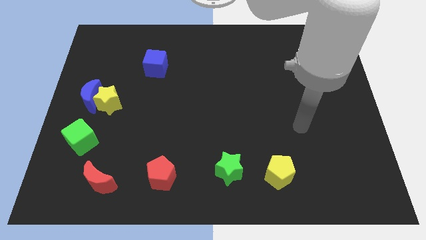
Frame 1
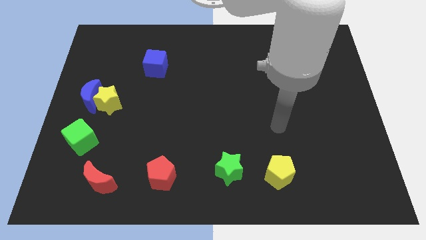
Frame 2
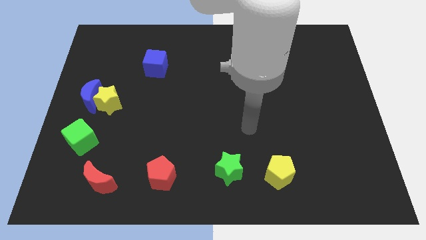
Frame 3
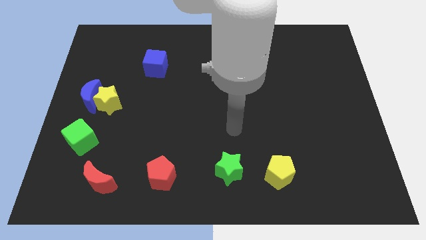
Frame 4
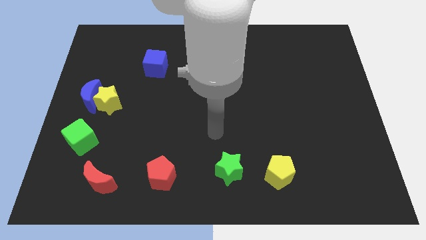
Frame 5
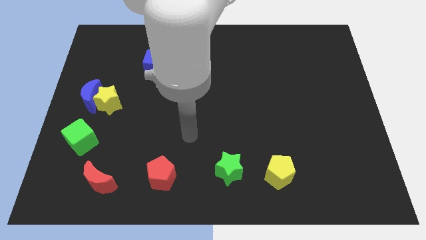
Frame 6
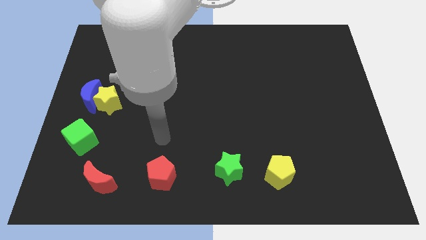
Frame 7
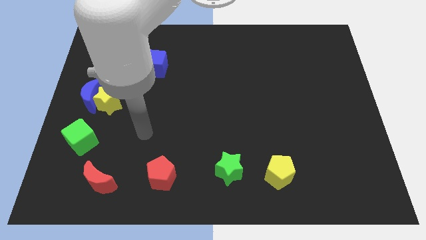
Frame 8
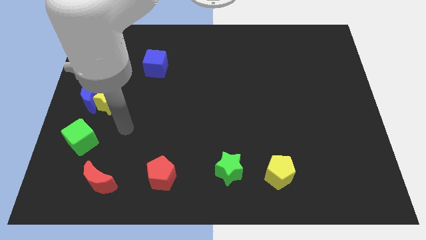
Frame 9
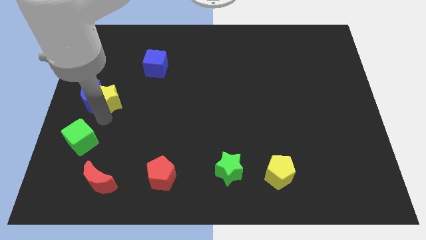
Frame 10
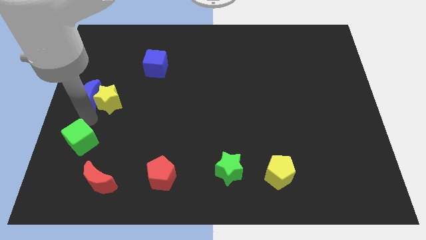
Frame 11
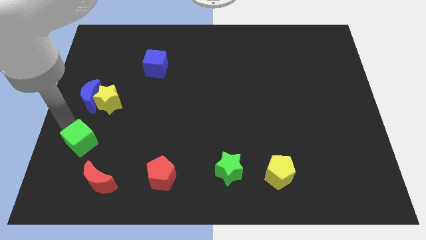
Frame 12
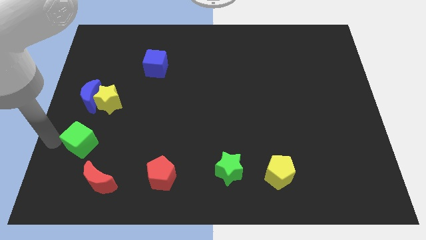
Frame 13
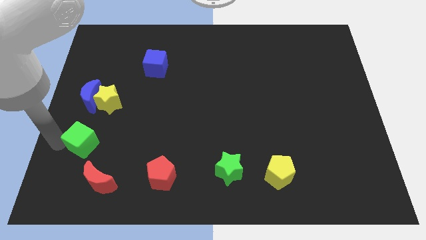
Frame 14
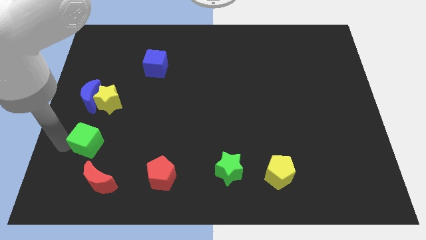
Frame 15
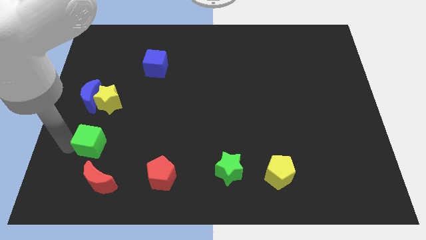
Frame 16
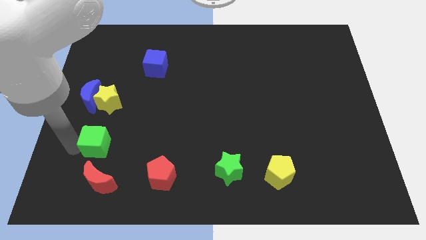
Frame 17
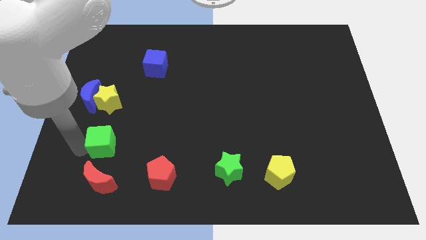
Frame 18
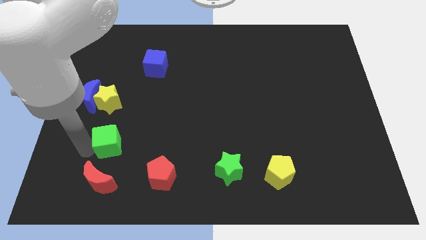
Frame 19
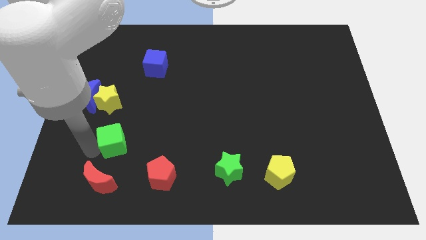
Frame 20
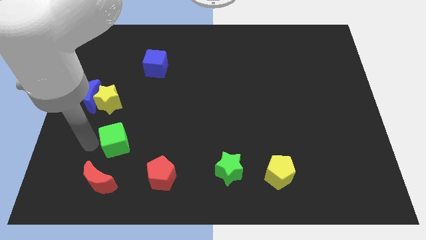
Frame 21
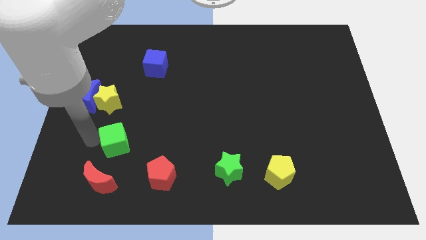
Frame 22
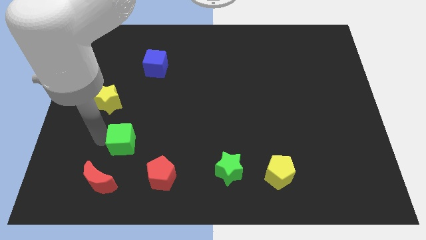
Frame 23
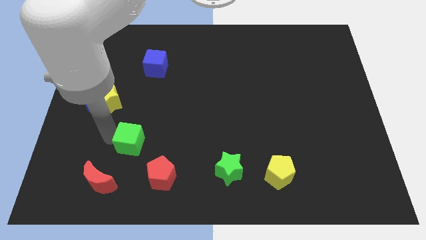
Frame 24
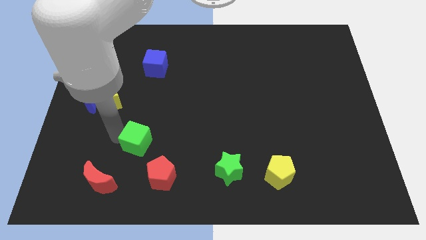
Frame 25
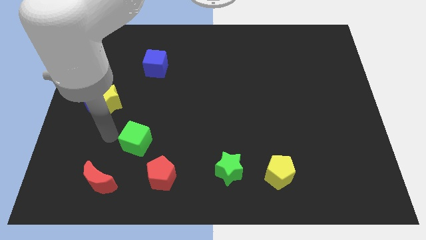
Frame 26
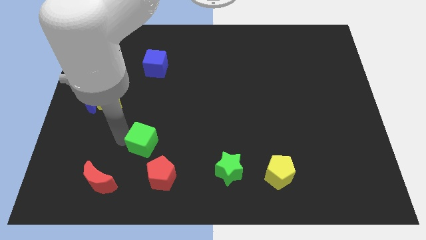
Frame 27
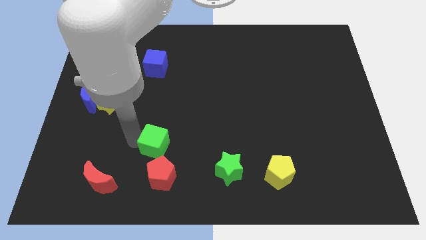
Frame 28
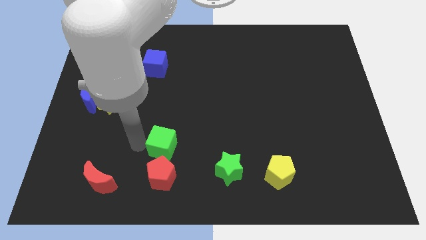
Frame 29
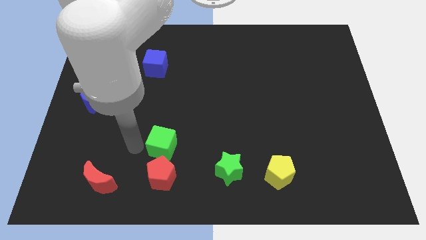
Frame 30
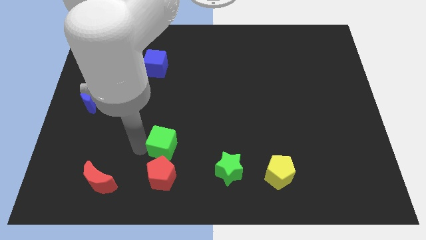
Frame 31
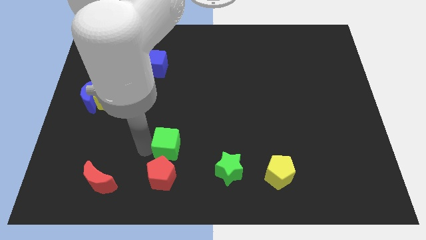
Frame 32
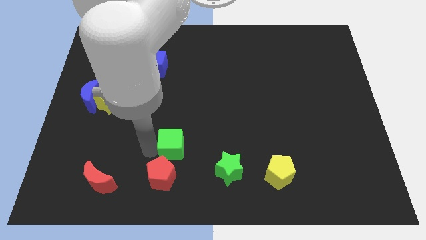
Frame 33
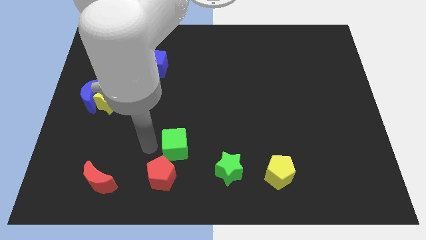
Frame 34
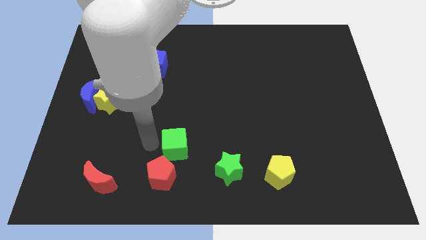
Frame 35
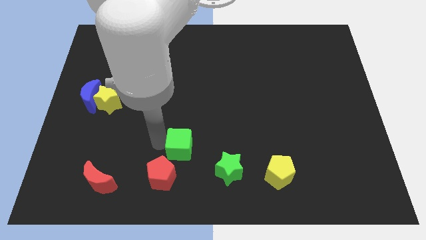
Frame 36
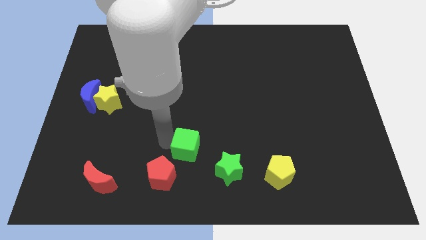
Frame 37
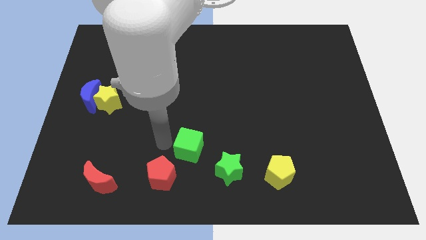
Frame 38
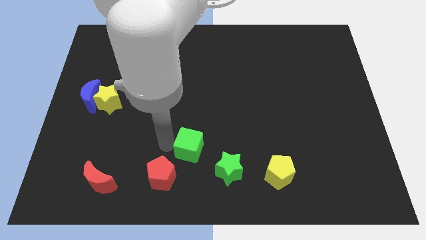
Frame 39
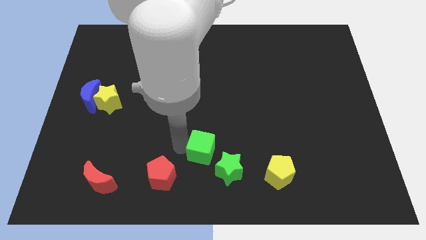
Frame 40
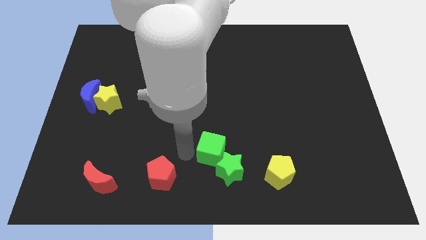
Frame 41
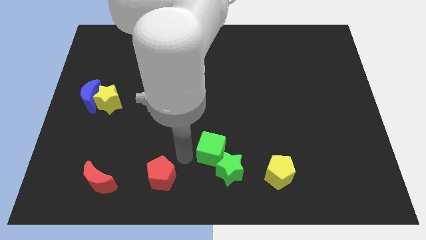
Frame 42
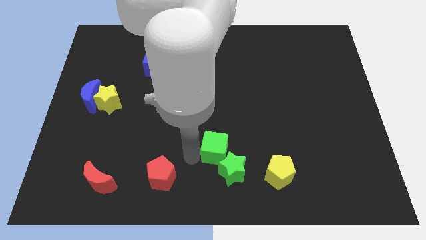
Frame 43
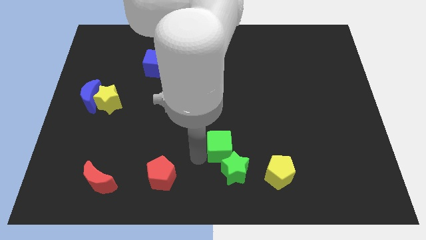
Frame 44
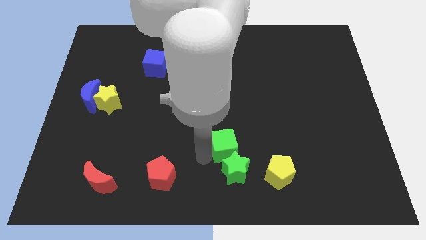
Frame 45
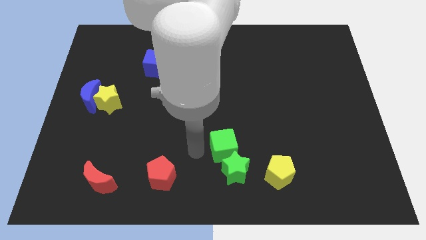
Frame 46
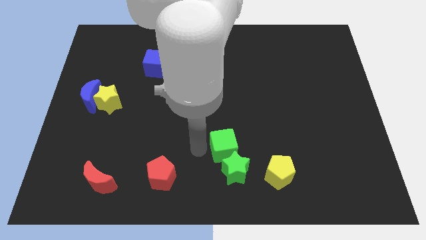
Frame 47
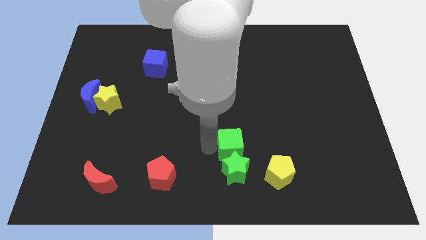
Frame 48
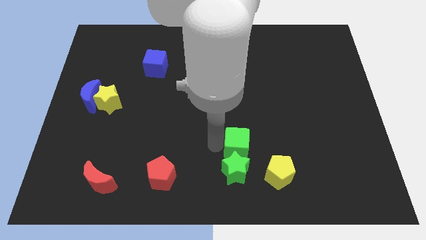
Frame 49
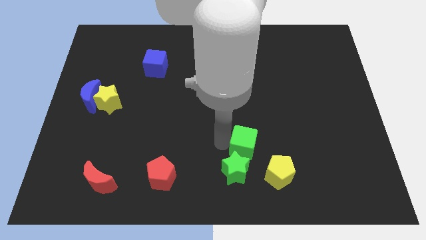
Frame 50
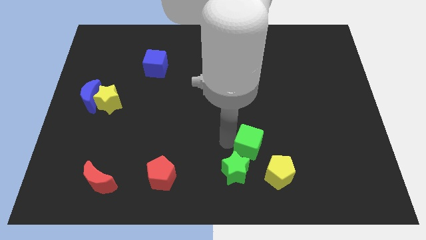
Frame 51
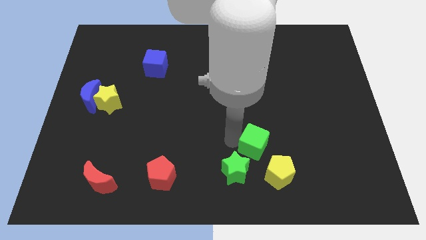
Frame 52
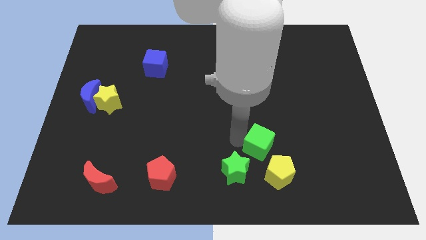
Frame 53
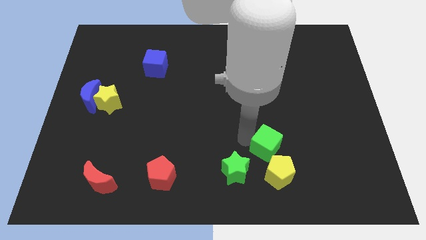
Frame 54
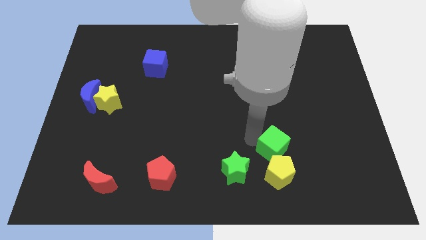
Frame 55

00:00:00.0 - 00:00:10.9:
slide the green cube close to the yellow pentagon

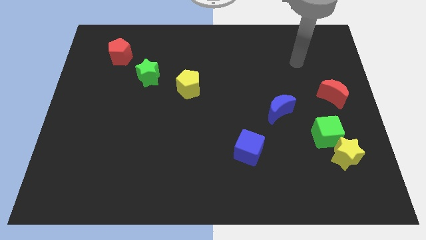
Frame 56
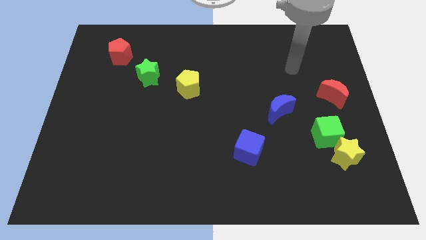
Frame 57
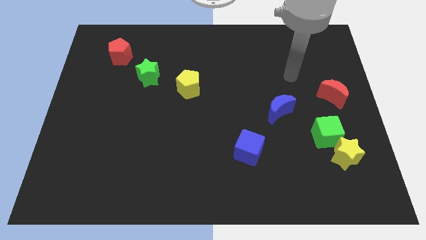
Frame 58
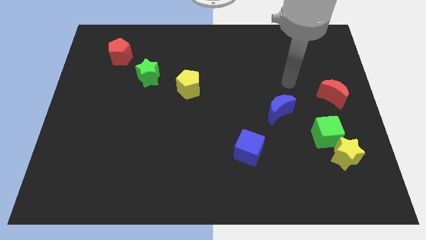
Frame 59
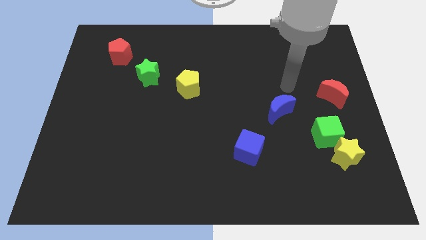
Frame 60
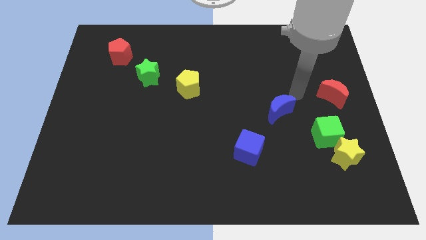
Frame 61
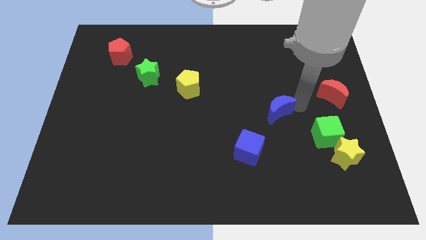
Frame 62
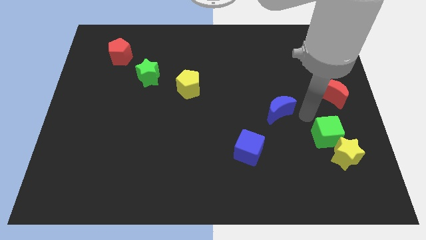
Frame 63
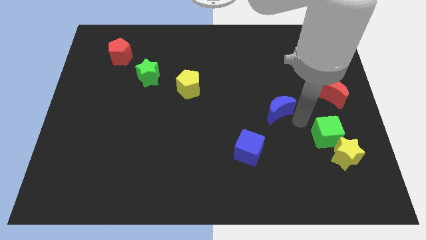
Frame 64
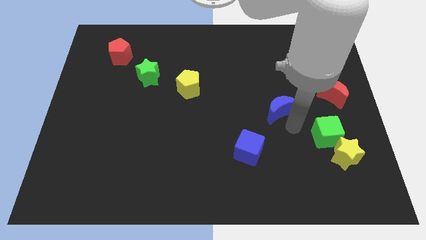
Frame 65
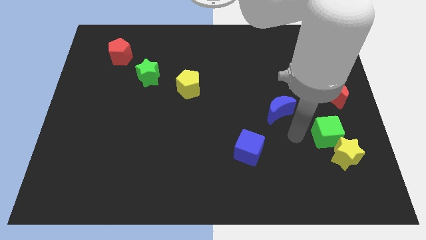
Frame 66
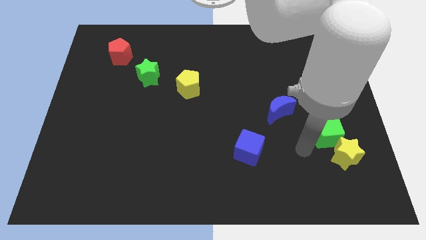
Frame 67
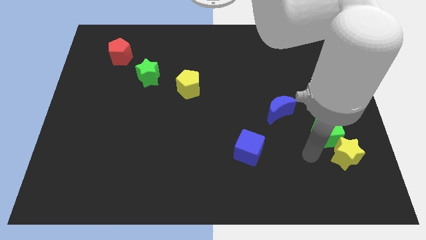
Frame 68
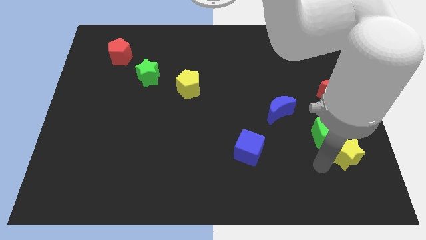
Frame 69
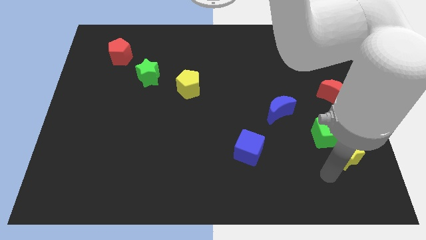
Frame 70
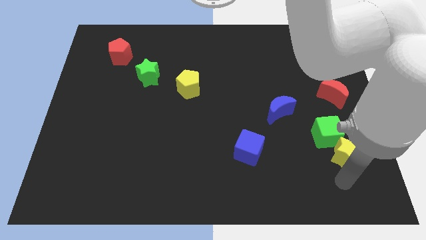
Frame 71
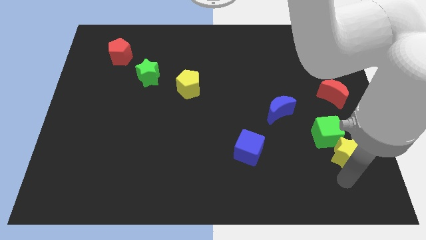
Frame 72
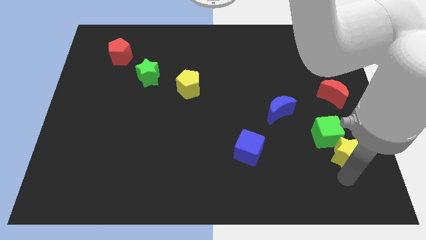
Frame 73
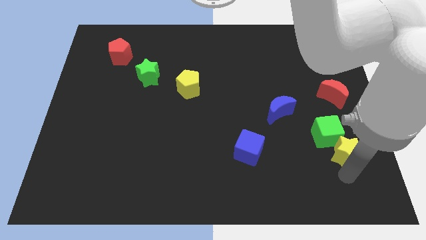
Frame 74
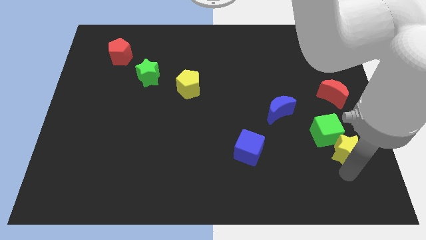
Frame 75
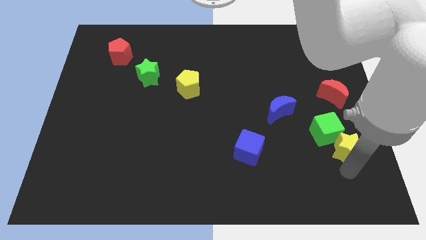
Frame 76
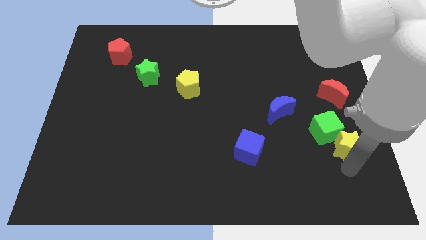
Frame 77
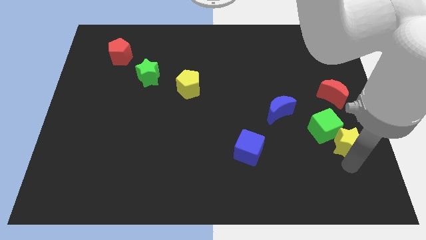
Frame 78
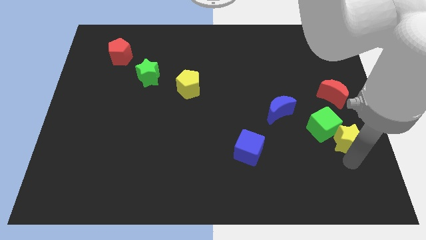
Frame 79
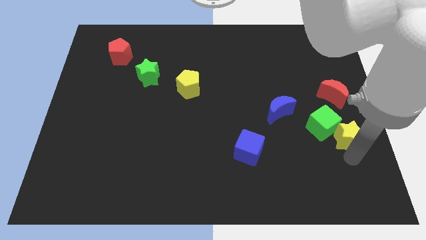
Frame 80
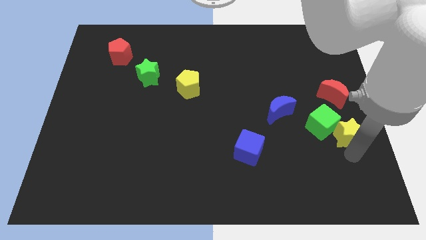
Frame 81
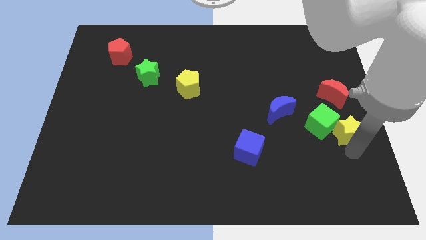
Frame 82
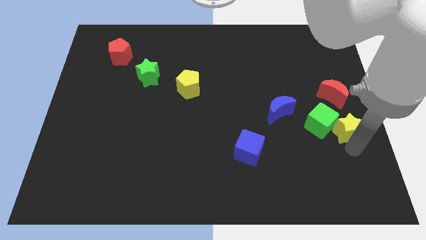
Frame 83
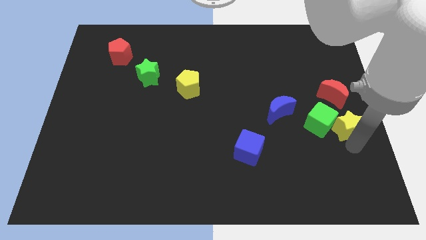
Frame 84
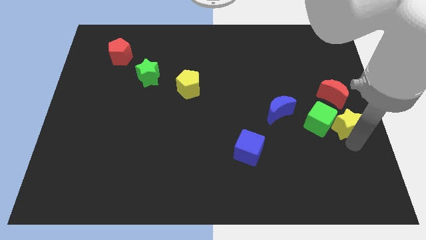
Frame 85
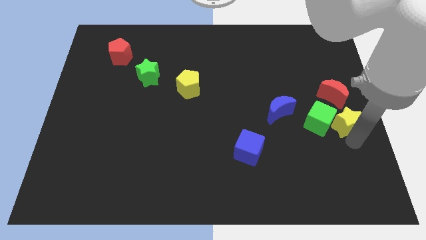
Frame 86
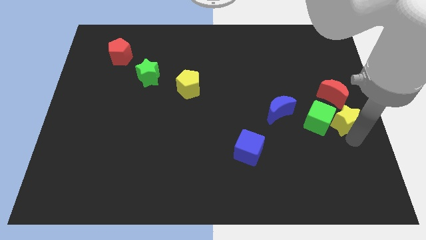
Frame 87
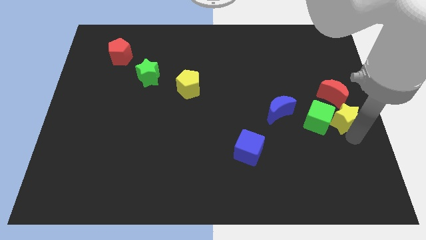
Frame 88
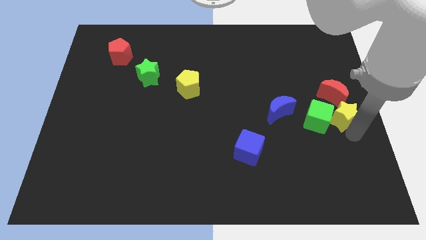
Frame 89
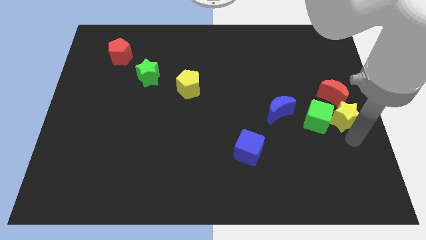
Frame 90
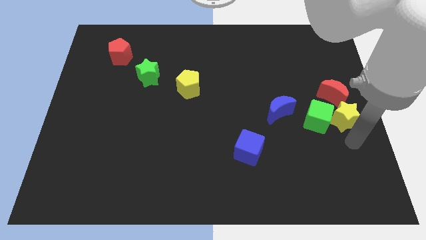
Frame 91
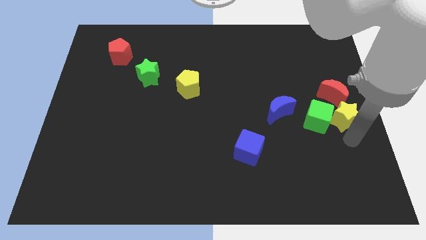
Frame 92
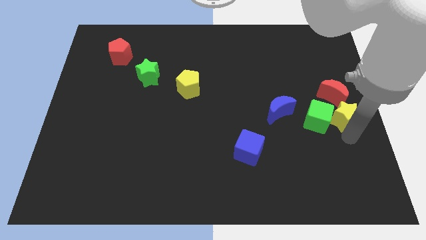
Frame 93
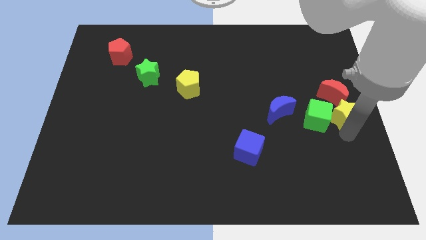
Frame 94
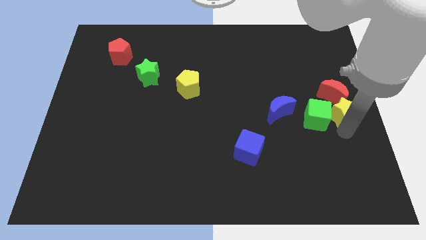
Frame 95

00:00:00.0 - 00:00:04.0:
slide the yellow star close to the red moon
